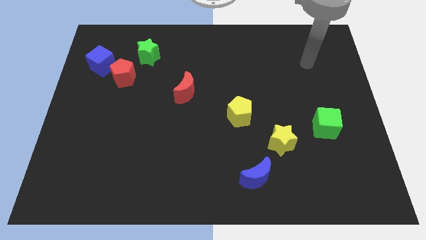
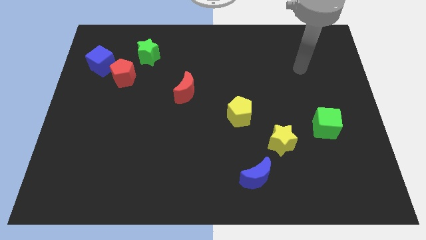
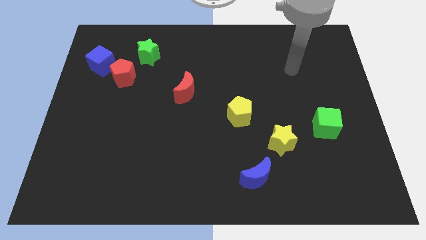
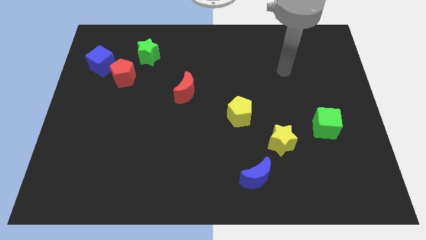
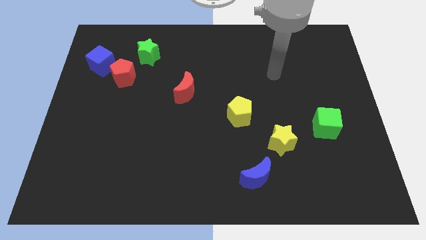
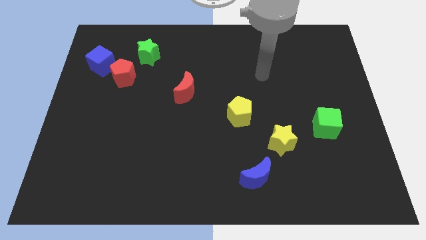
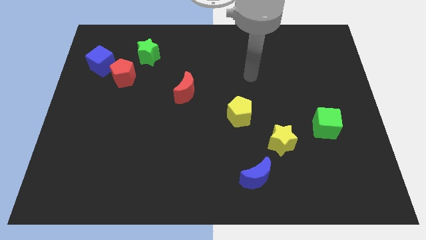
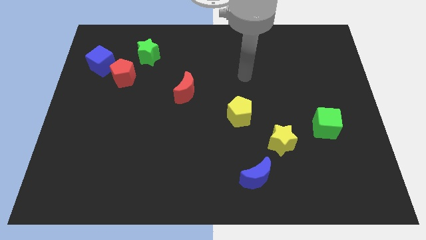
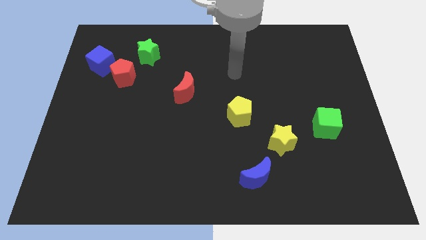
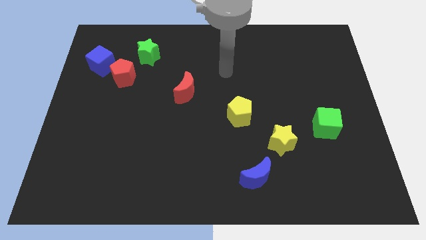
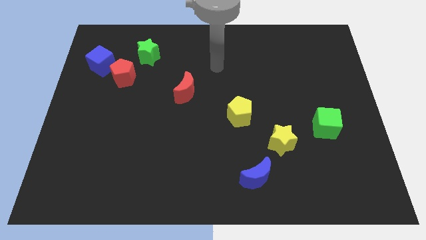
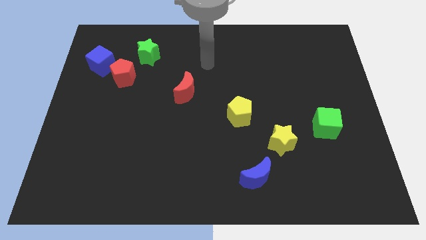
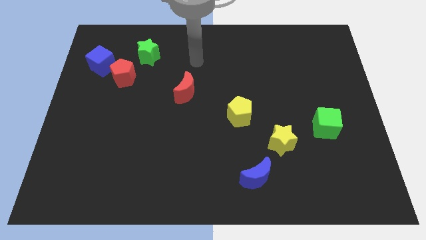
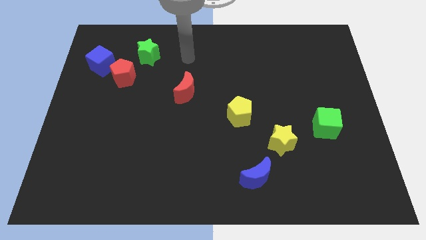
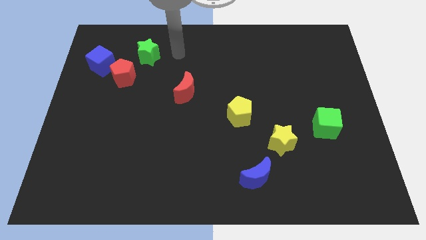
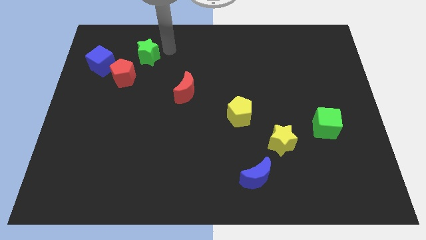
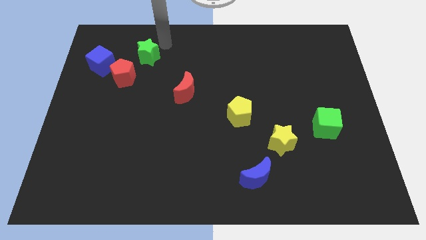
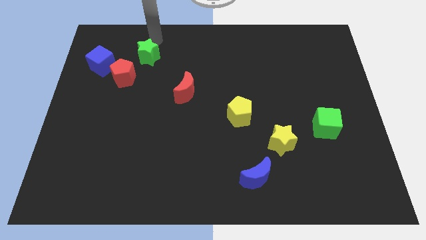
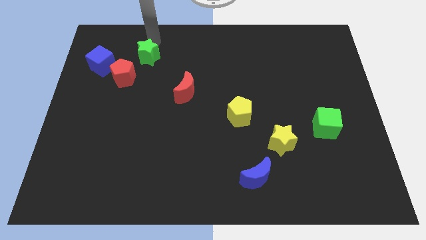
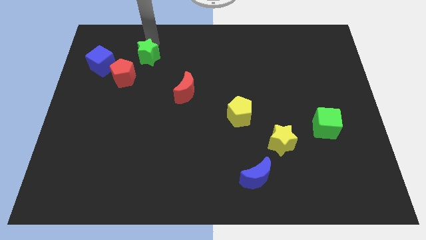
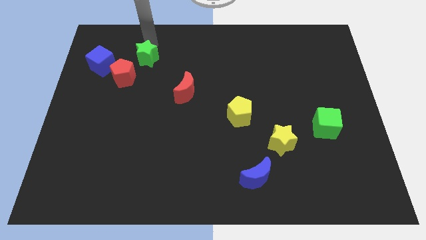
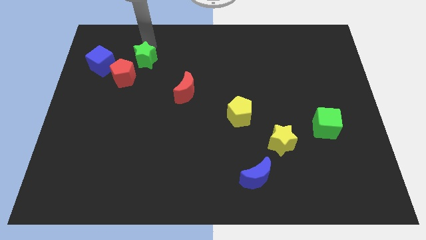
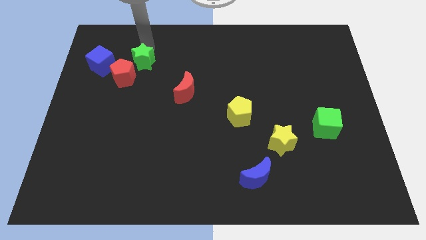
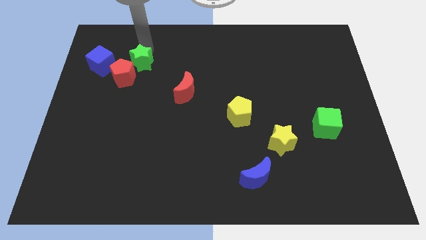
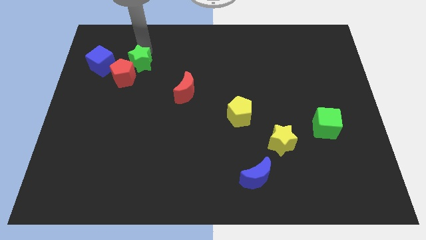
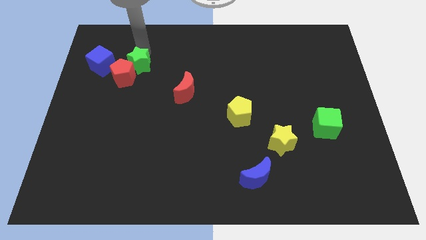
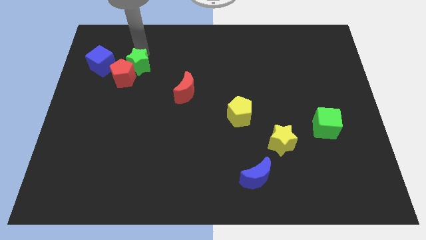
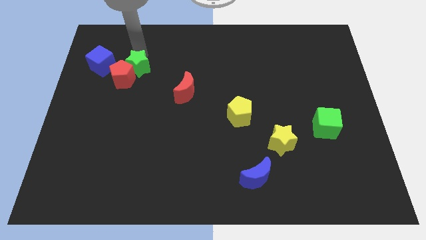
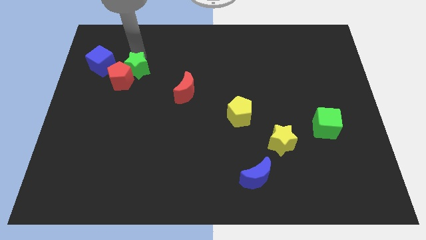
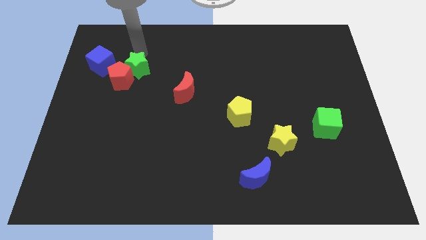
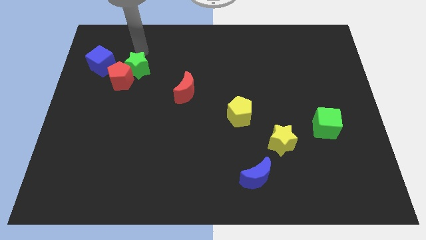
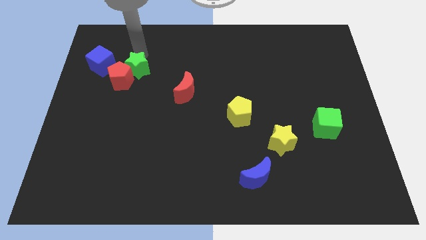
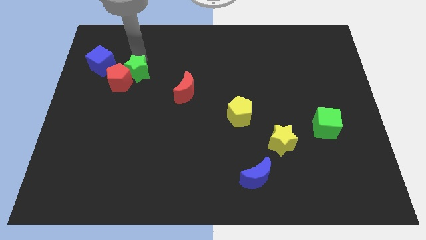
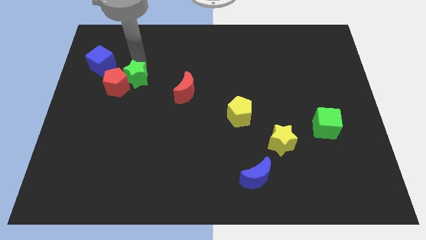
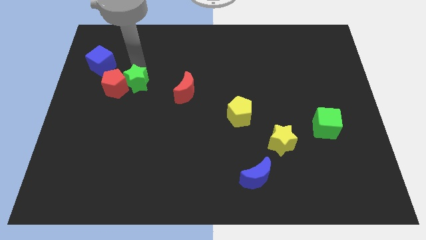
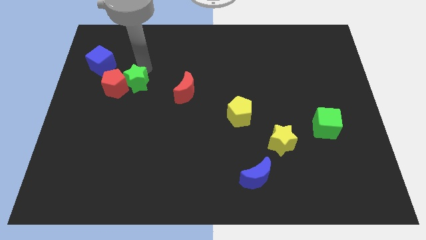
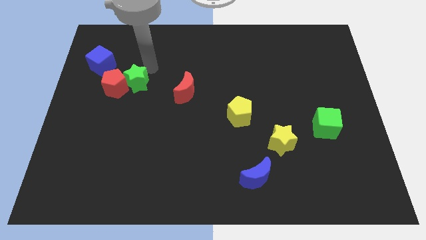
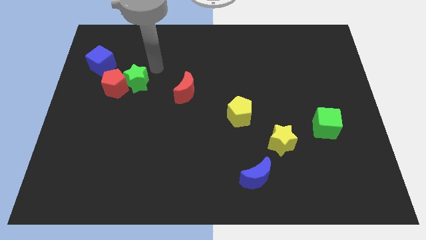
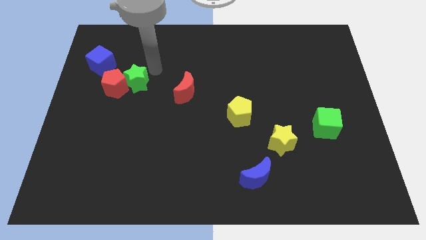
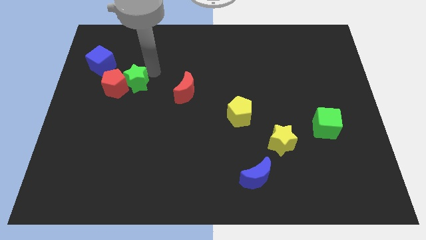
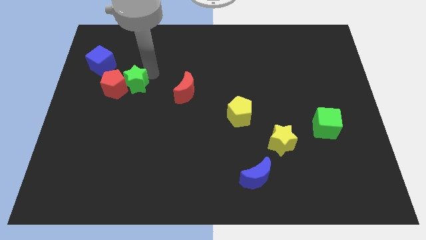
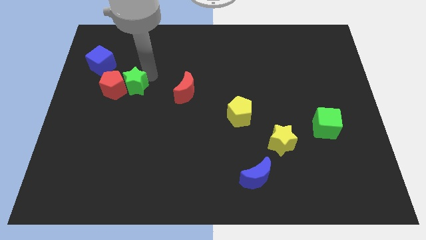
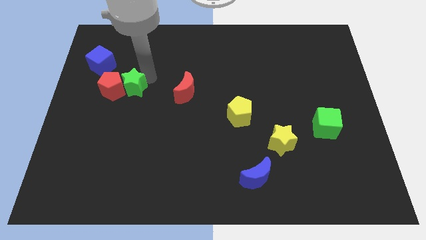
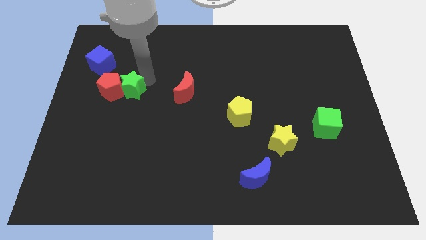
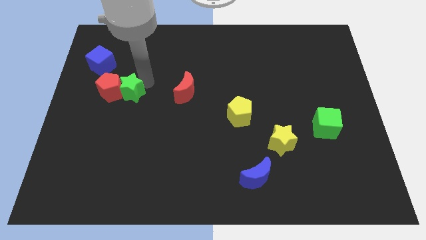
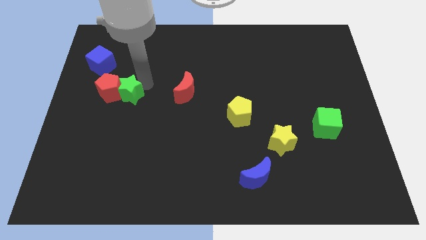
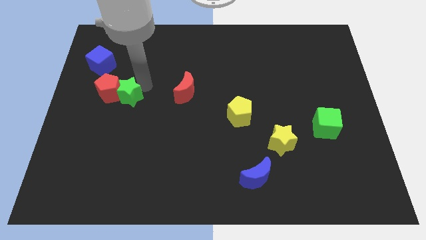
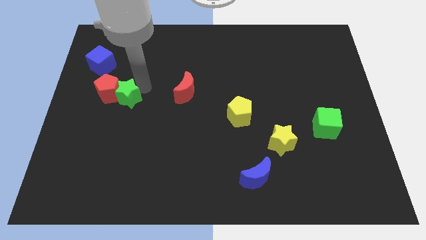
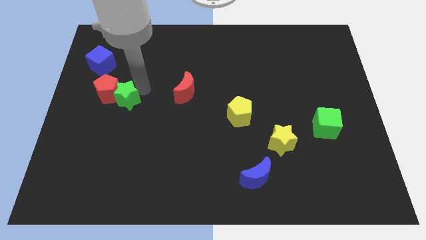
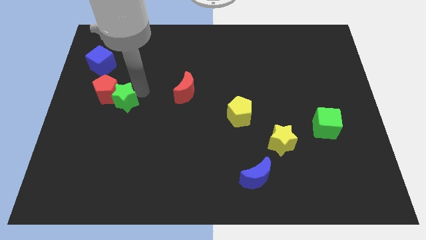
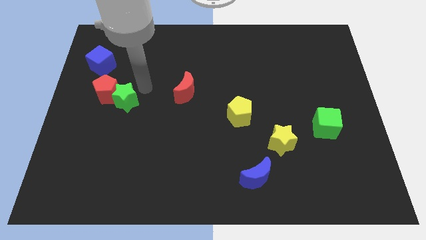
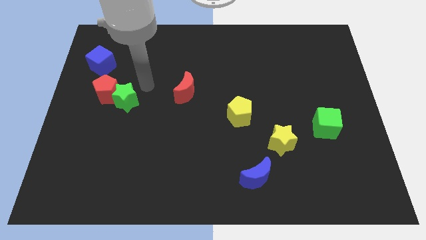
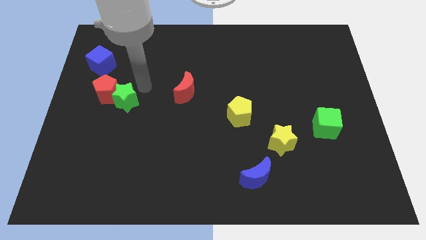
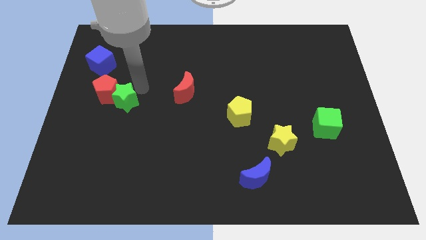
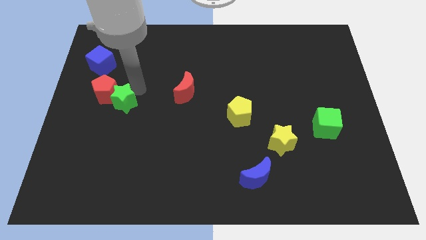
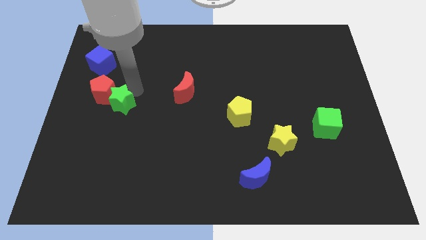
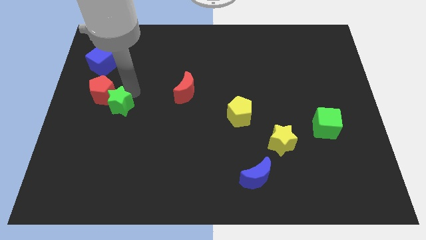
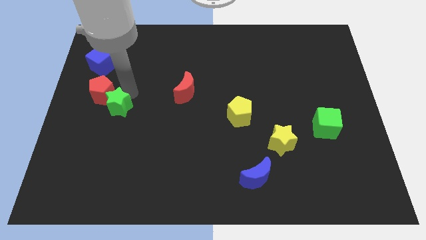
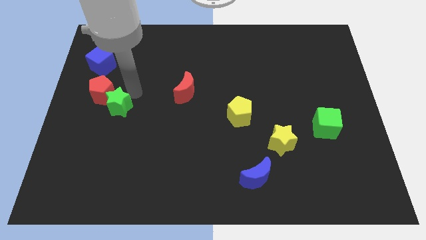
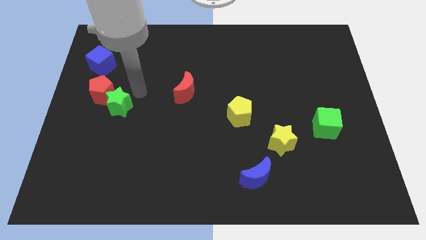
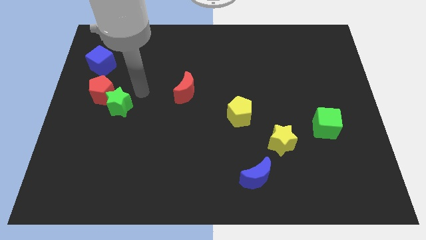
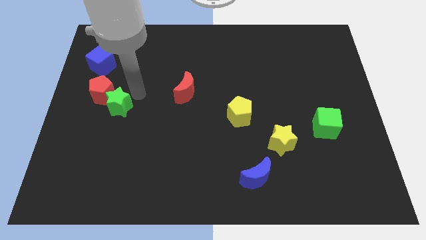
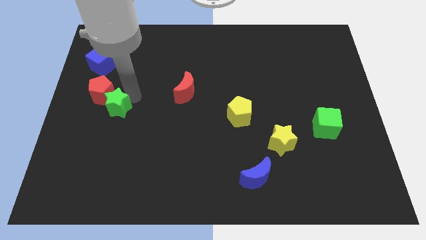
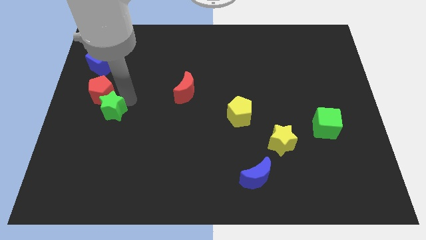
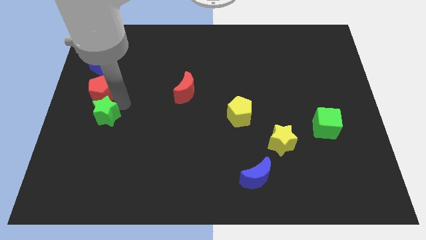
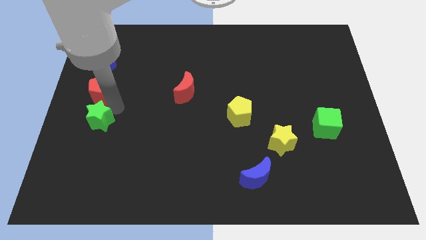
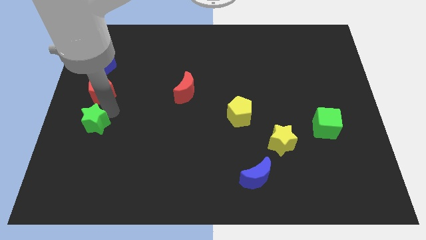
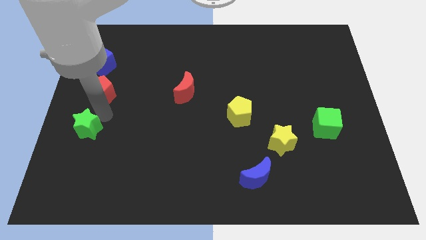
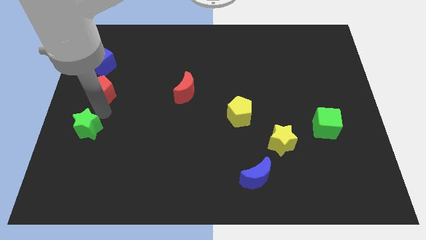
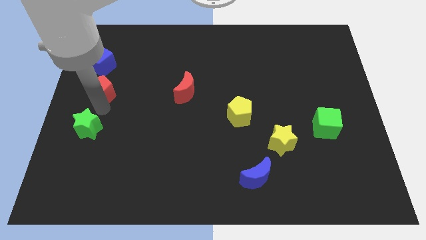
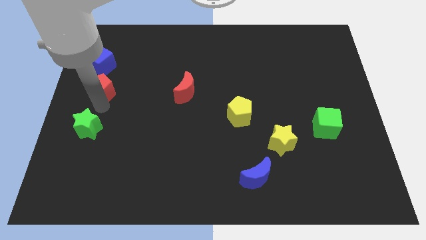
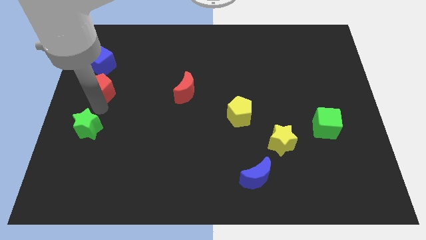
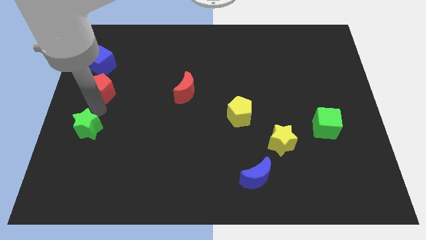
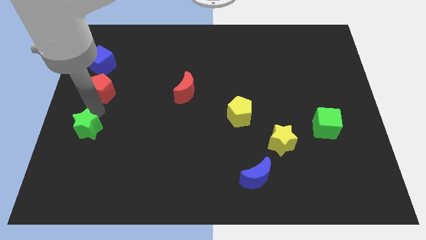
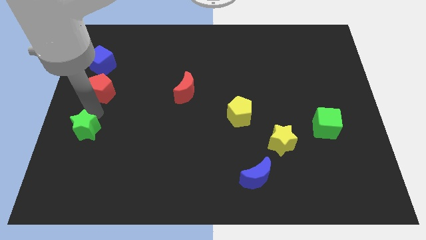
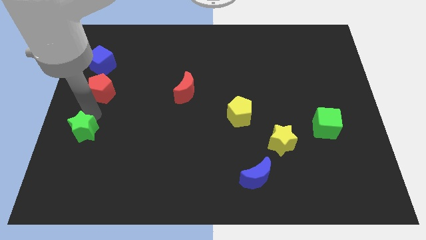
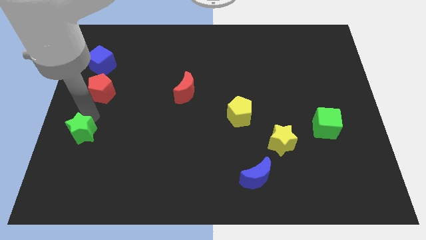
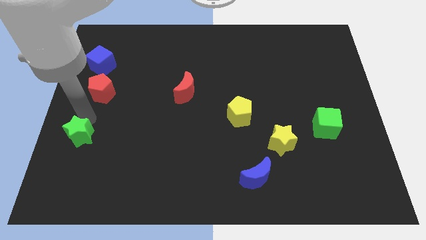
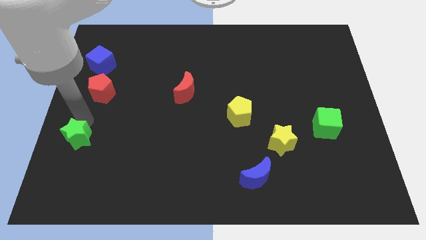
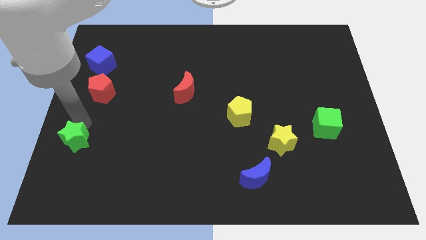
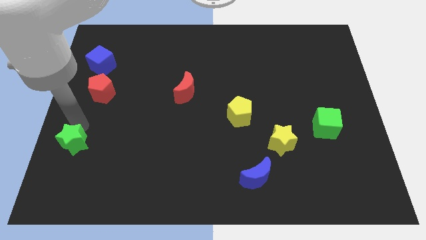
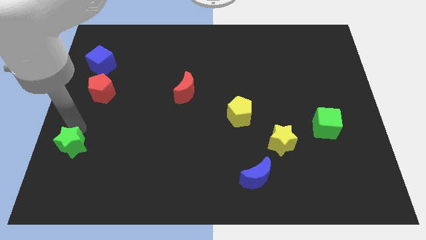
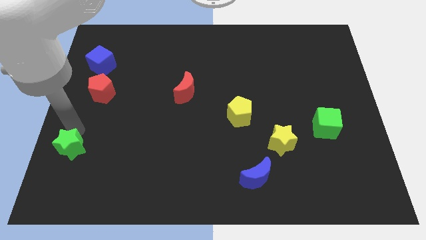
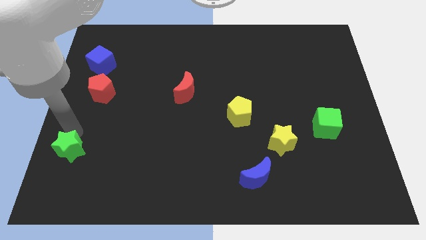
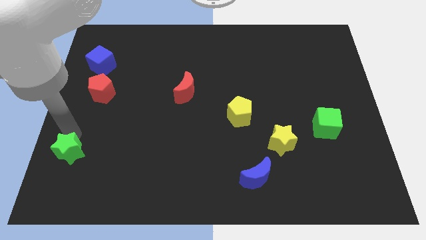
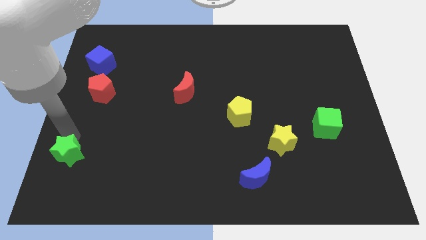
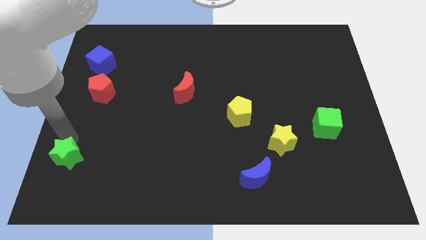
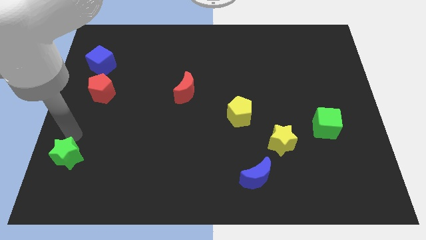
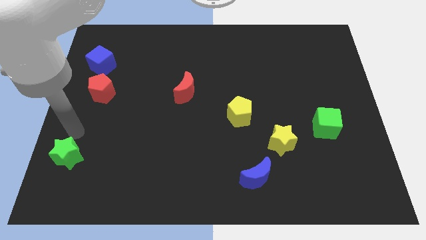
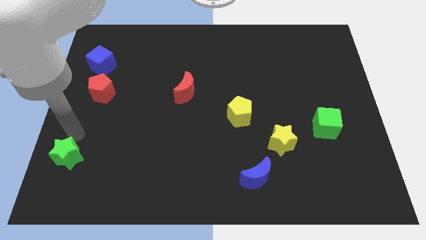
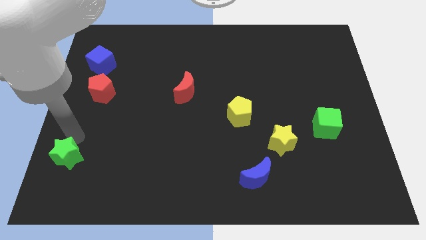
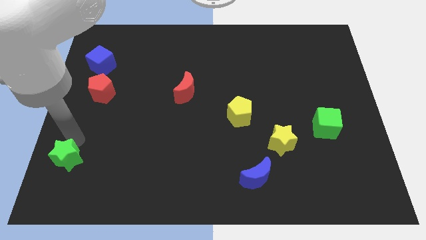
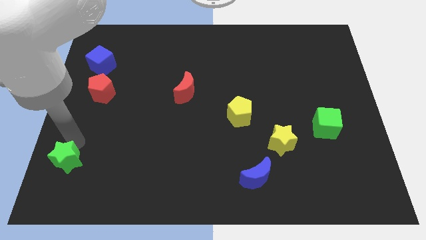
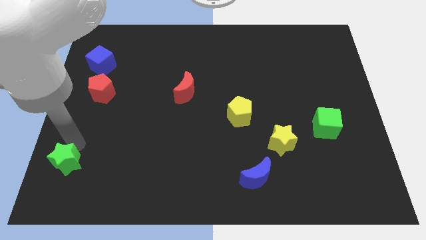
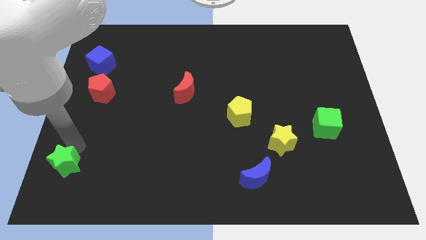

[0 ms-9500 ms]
slide the green star to the bottom left
